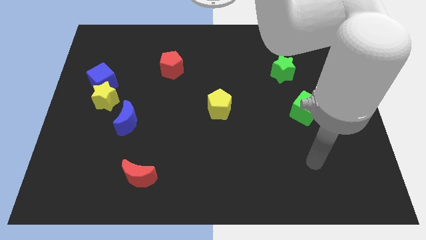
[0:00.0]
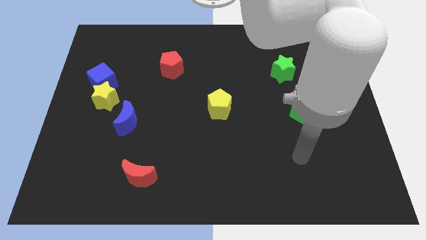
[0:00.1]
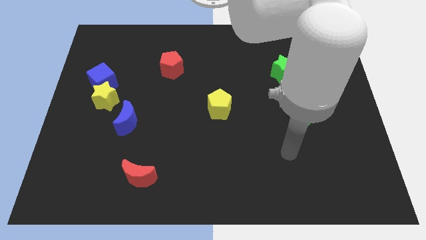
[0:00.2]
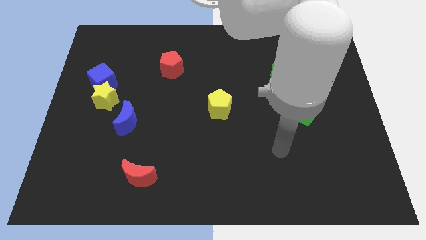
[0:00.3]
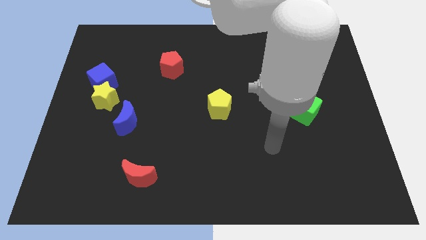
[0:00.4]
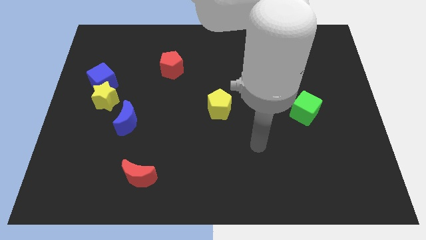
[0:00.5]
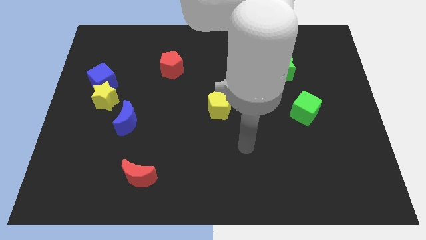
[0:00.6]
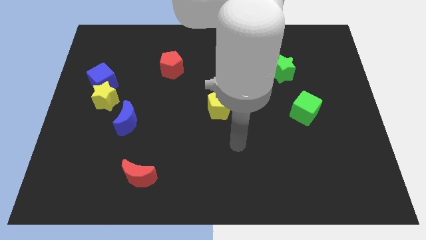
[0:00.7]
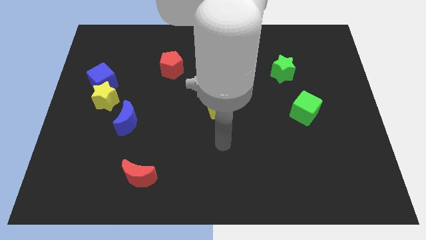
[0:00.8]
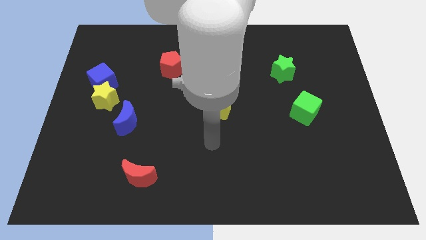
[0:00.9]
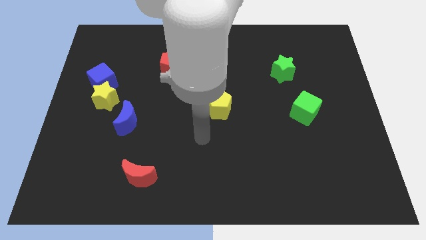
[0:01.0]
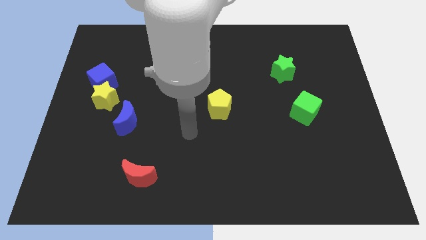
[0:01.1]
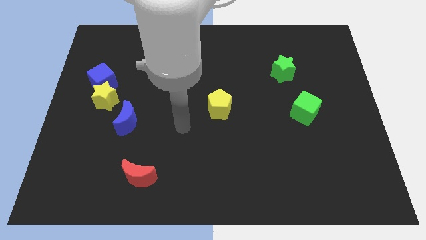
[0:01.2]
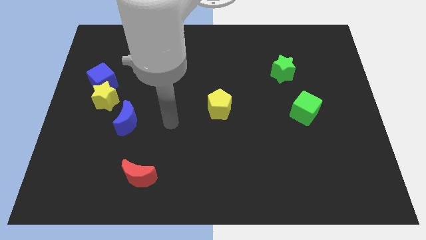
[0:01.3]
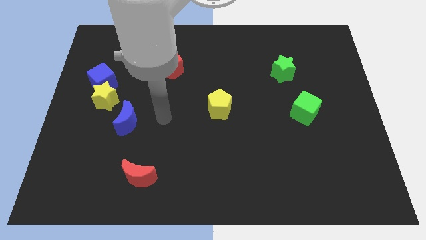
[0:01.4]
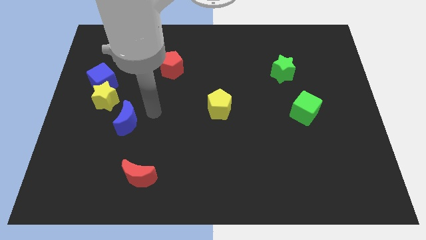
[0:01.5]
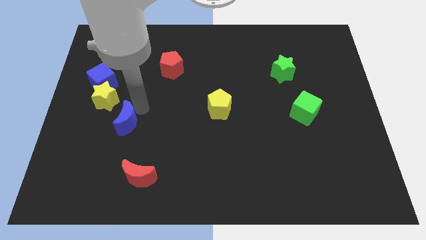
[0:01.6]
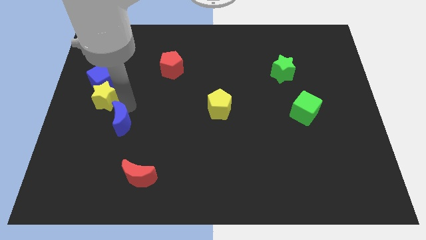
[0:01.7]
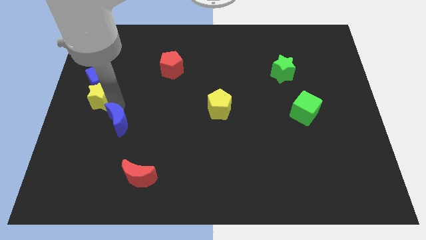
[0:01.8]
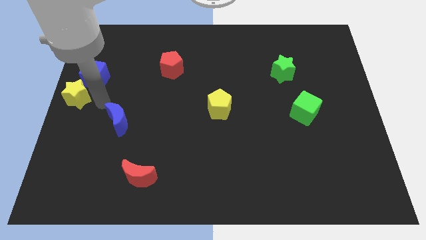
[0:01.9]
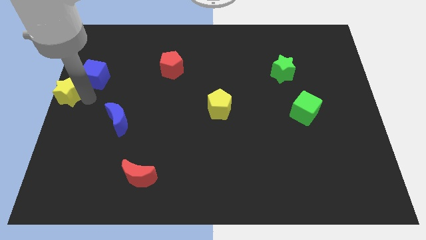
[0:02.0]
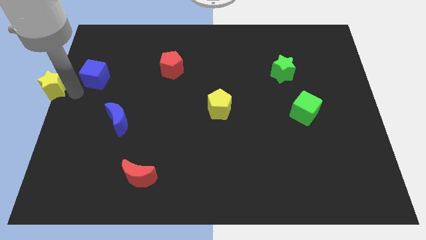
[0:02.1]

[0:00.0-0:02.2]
move the blue cube away from the yellow star

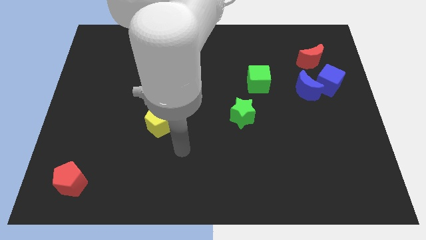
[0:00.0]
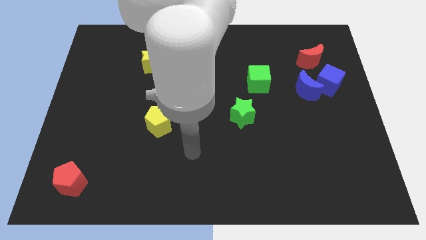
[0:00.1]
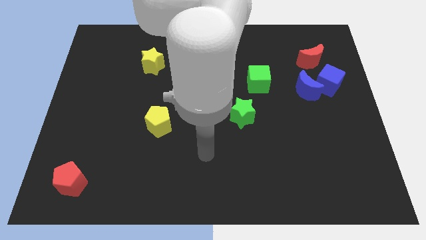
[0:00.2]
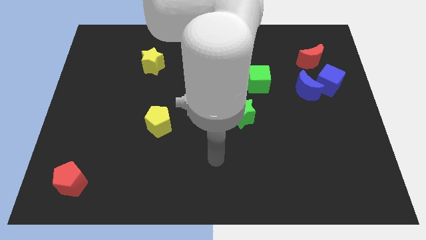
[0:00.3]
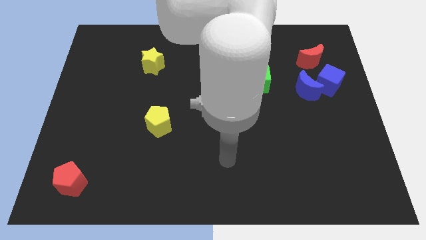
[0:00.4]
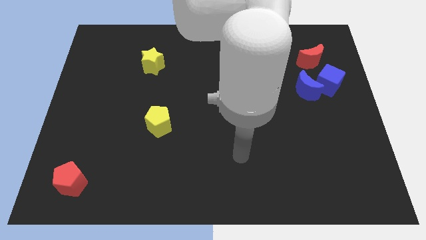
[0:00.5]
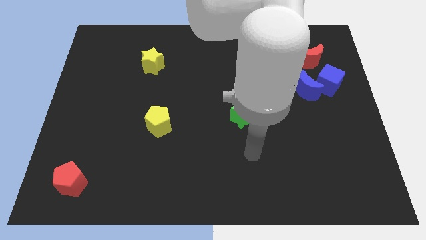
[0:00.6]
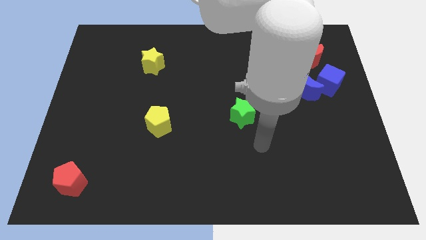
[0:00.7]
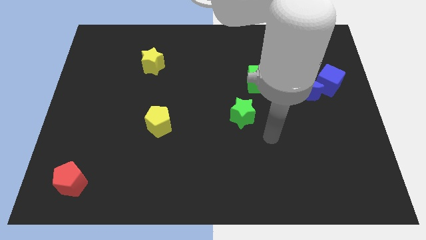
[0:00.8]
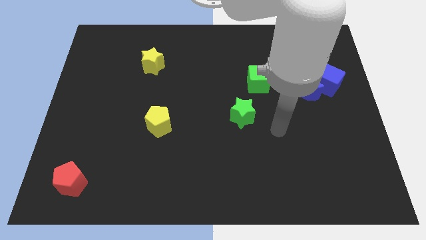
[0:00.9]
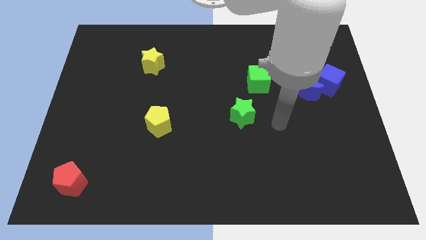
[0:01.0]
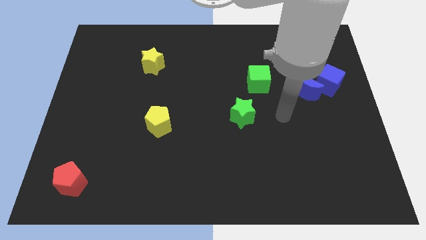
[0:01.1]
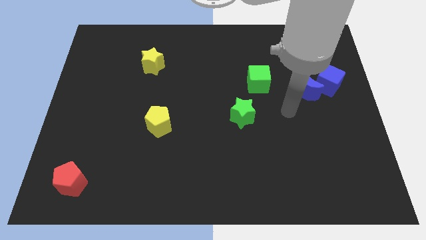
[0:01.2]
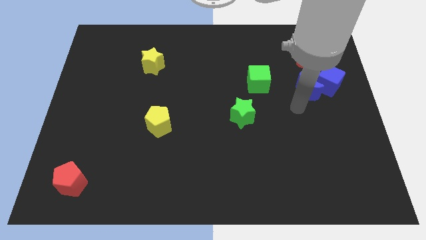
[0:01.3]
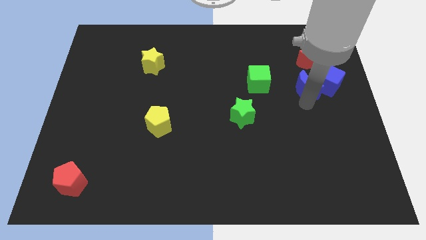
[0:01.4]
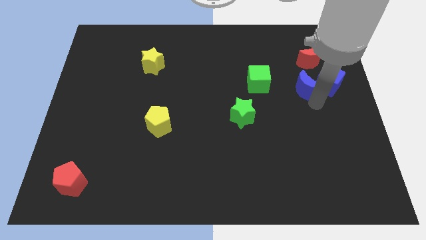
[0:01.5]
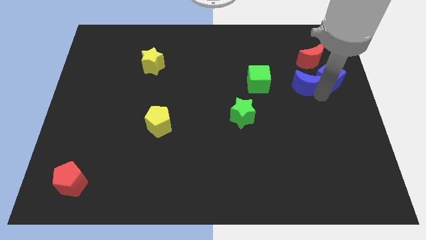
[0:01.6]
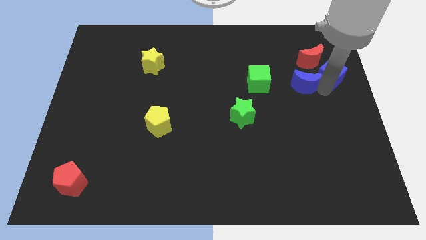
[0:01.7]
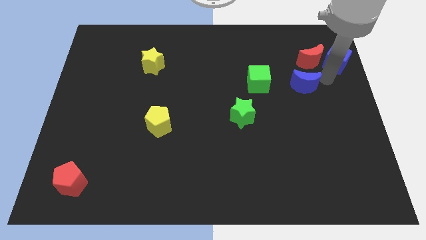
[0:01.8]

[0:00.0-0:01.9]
separate the blue moon from the blue cube

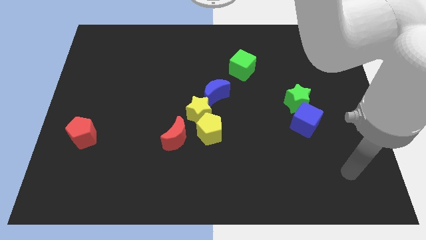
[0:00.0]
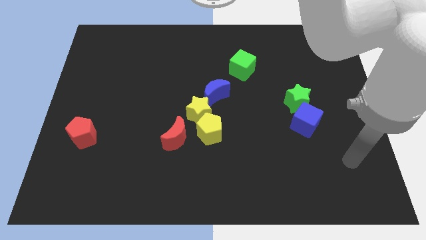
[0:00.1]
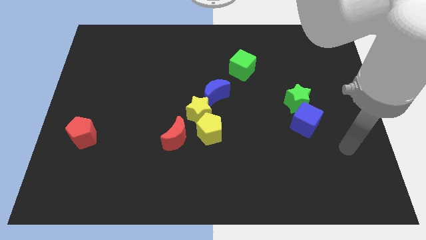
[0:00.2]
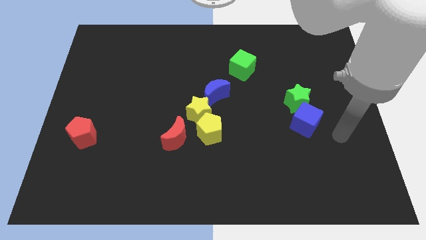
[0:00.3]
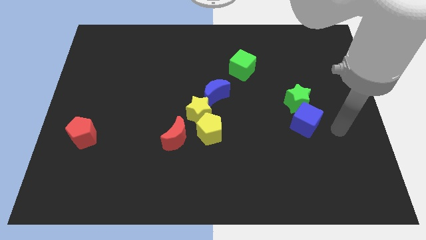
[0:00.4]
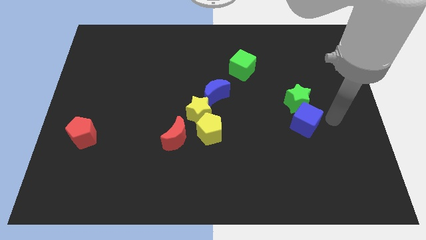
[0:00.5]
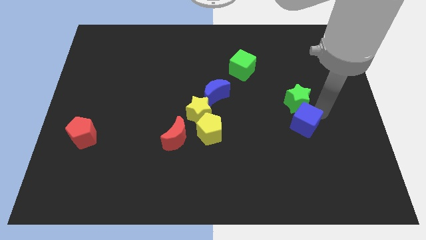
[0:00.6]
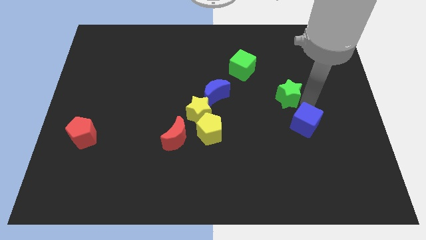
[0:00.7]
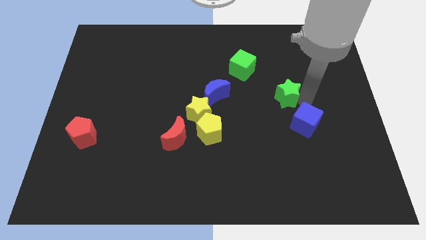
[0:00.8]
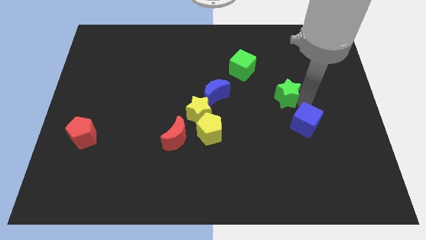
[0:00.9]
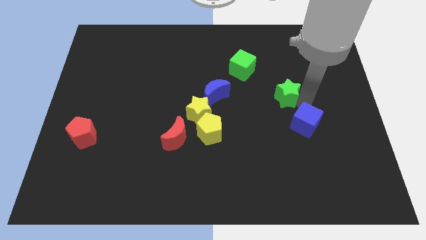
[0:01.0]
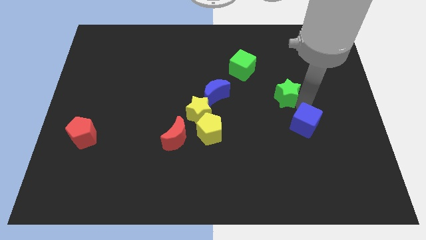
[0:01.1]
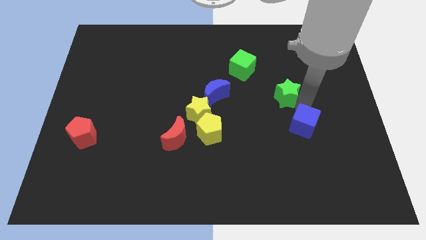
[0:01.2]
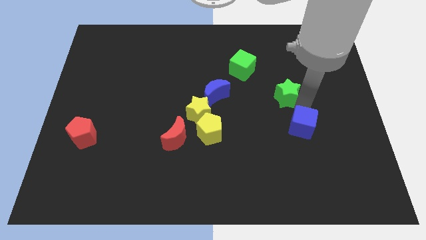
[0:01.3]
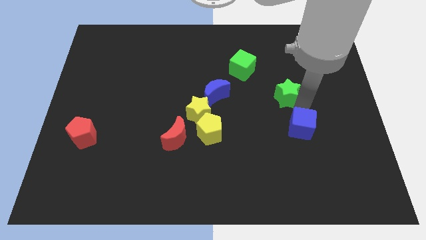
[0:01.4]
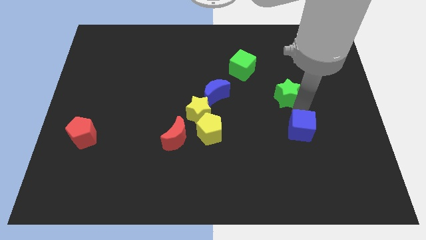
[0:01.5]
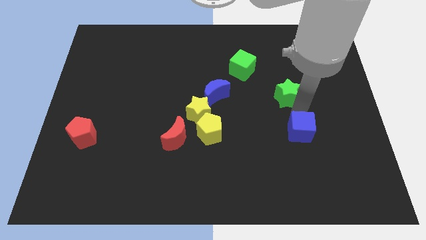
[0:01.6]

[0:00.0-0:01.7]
separate the blue cube from the green star

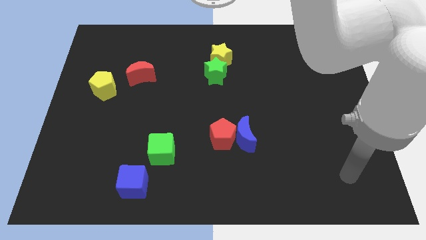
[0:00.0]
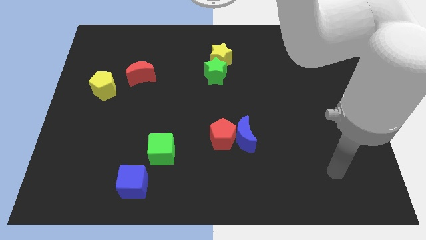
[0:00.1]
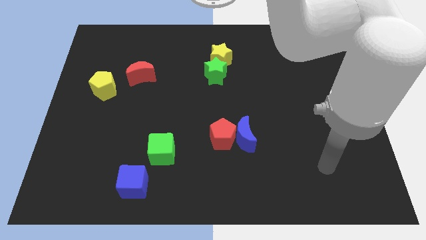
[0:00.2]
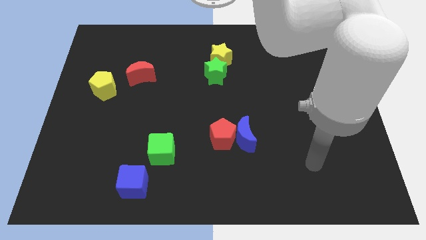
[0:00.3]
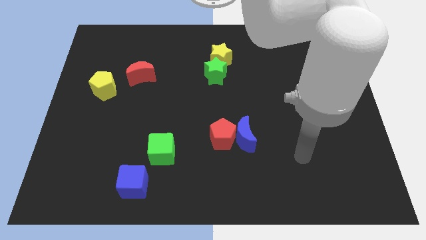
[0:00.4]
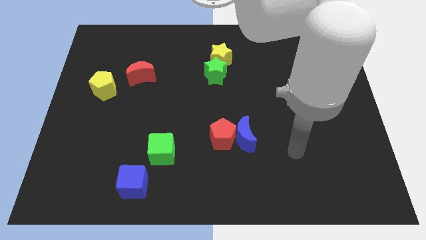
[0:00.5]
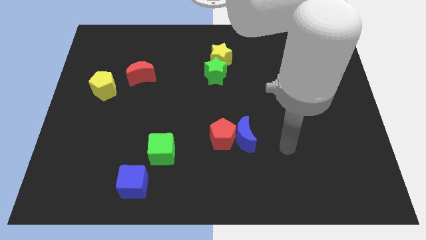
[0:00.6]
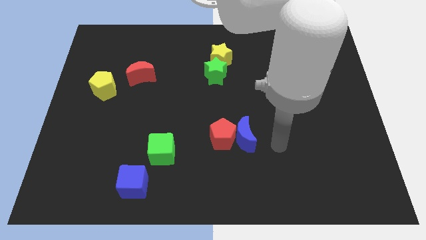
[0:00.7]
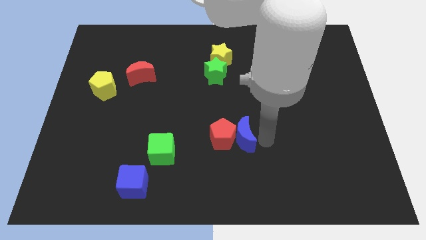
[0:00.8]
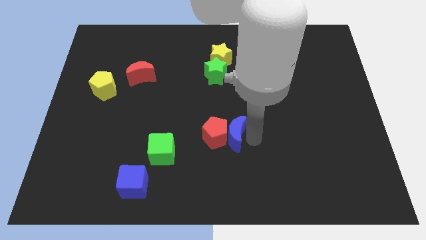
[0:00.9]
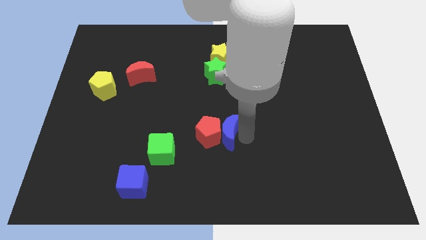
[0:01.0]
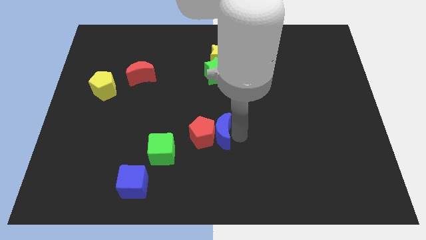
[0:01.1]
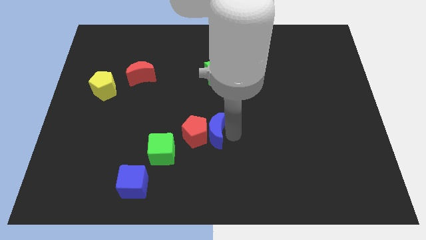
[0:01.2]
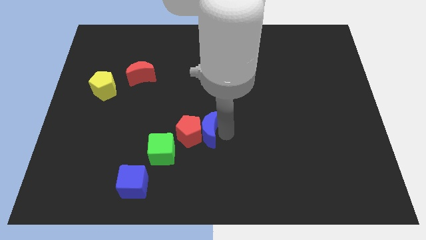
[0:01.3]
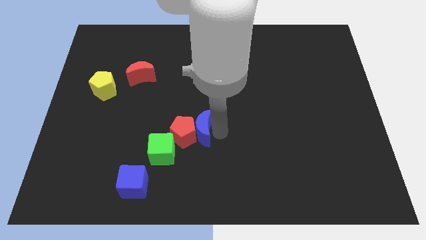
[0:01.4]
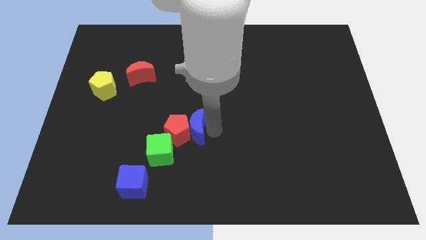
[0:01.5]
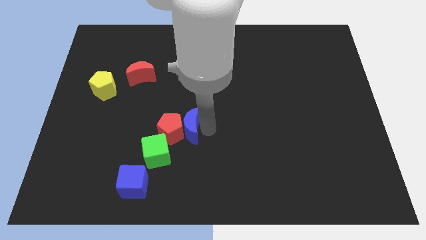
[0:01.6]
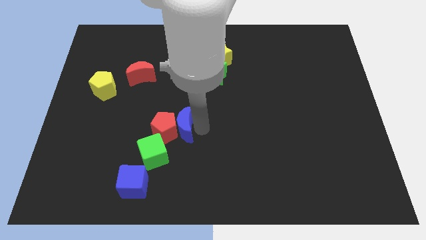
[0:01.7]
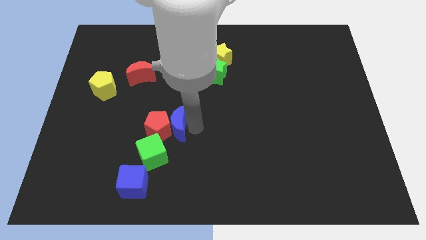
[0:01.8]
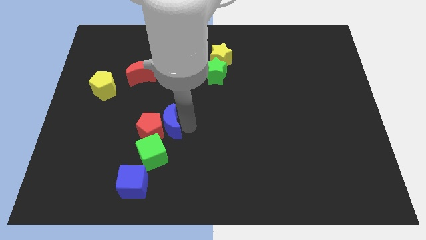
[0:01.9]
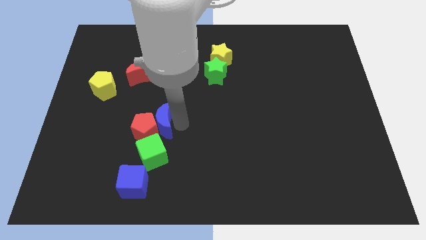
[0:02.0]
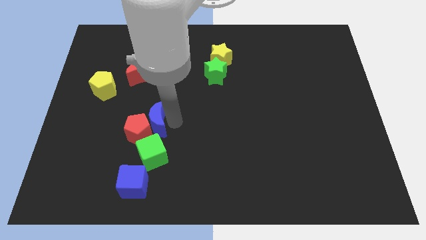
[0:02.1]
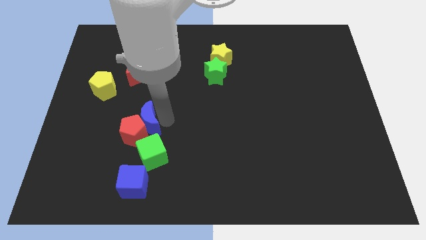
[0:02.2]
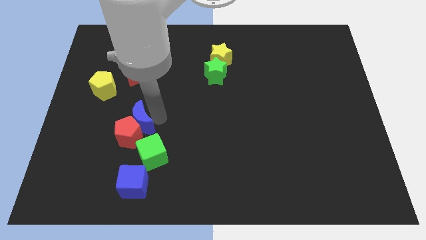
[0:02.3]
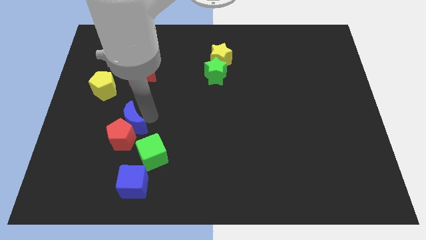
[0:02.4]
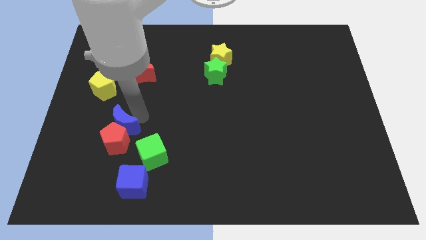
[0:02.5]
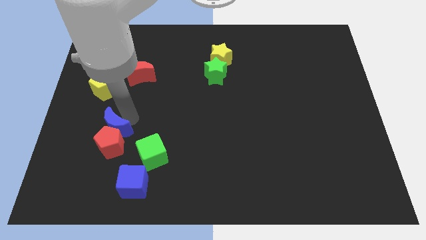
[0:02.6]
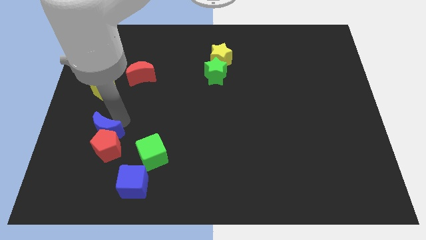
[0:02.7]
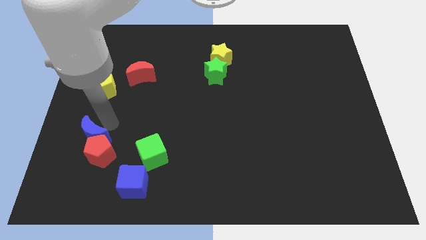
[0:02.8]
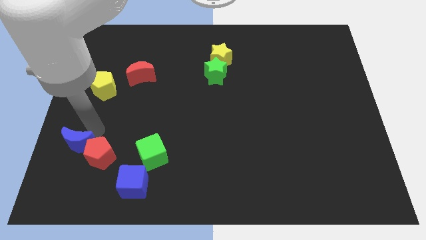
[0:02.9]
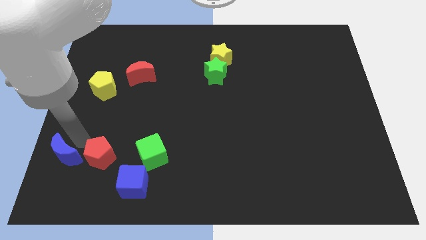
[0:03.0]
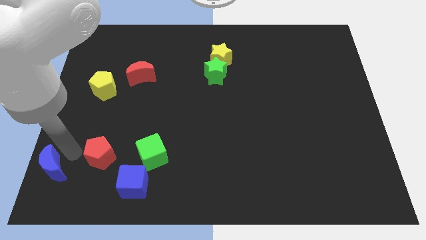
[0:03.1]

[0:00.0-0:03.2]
separate the red pentagon from the blue moon

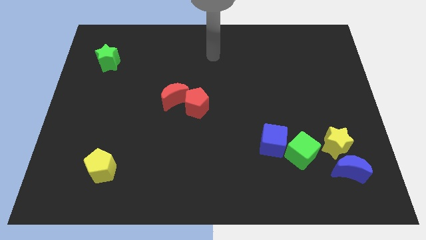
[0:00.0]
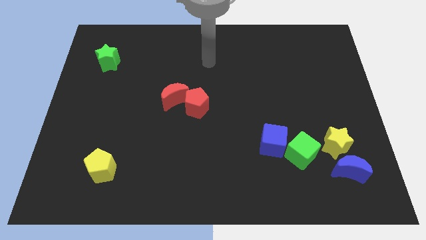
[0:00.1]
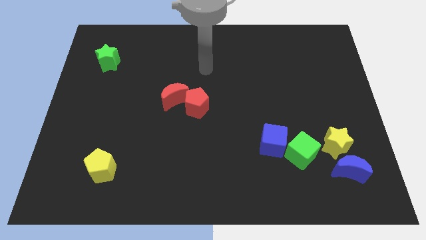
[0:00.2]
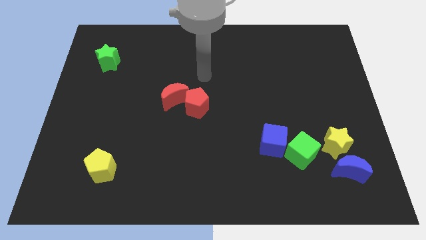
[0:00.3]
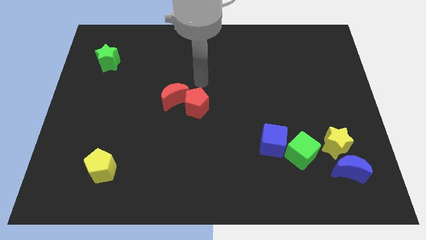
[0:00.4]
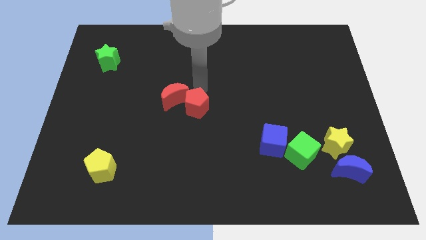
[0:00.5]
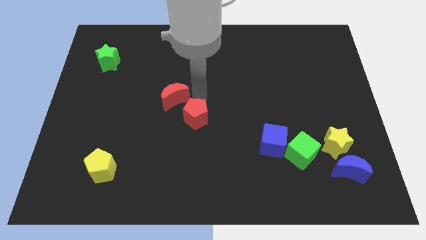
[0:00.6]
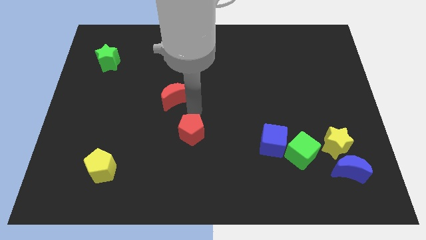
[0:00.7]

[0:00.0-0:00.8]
separate the red moon from the red pentagon
